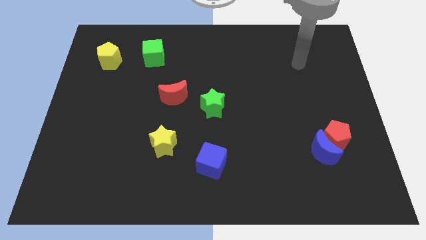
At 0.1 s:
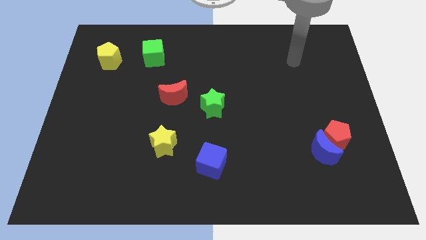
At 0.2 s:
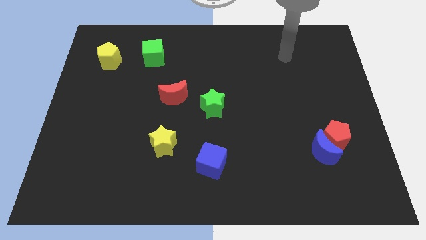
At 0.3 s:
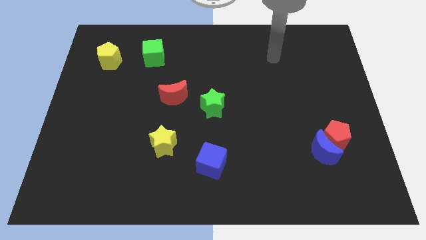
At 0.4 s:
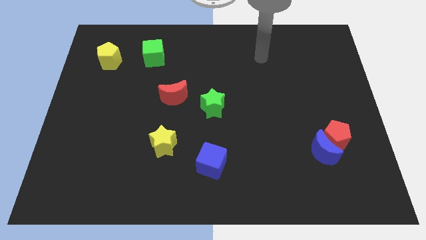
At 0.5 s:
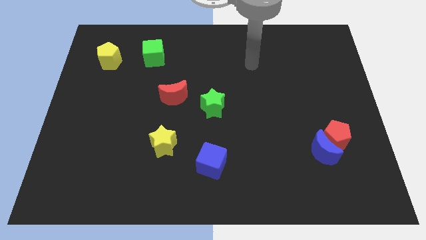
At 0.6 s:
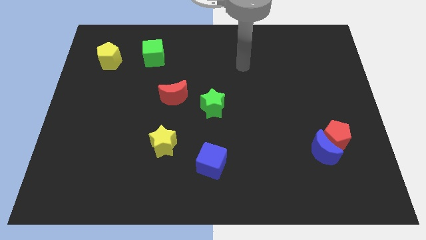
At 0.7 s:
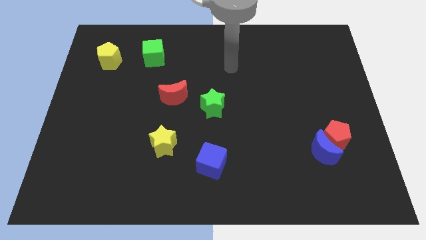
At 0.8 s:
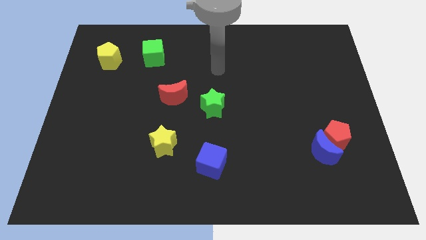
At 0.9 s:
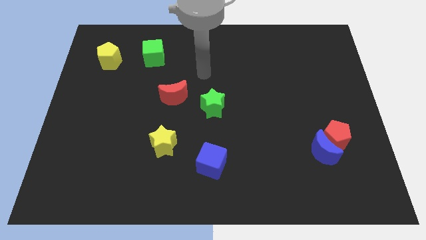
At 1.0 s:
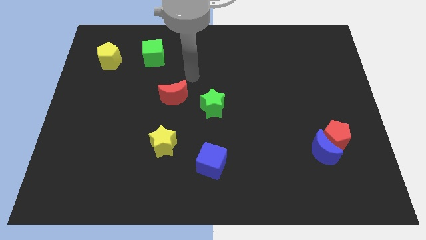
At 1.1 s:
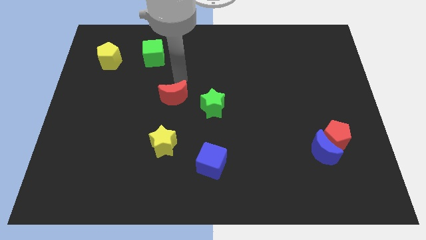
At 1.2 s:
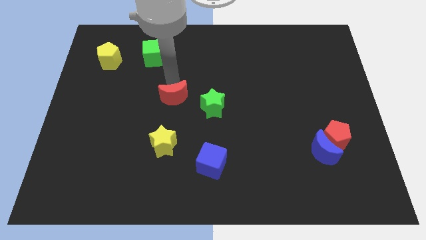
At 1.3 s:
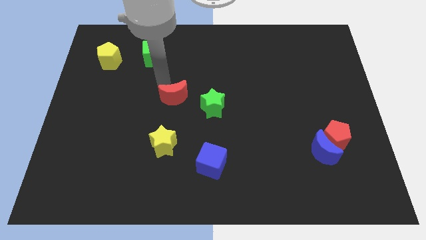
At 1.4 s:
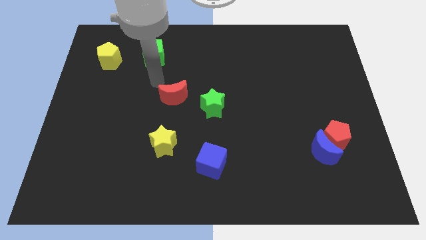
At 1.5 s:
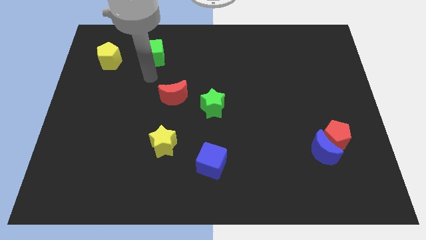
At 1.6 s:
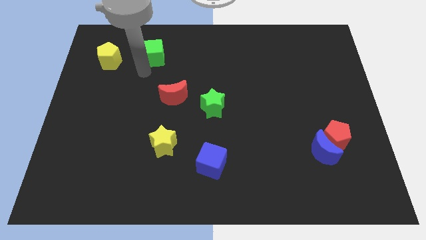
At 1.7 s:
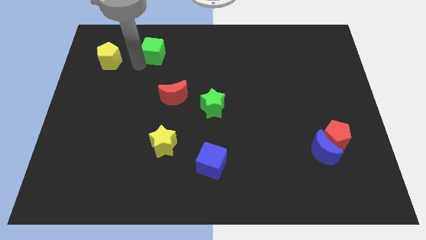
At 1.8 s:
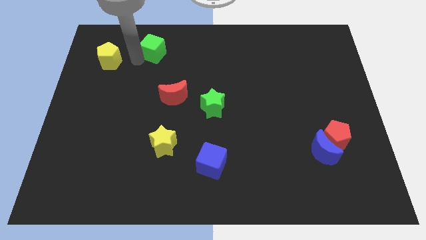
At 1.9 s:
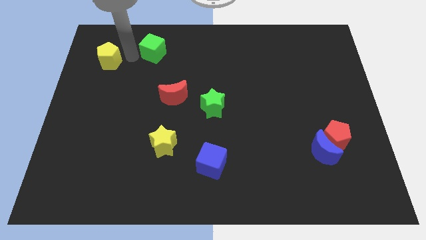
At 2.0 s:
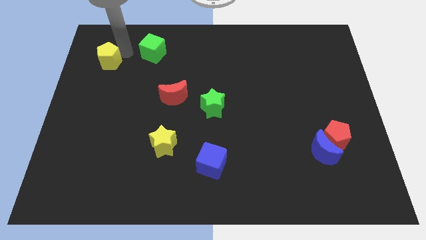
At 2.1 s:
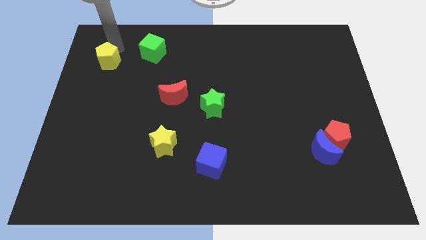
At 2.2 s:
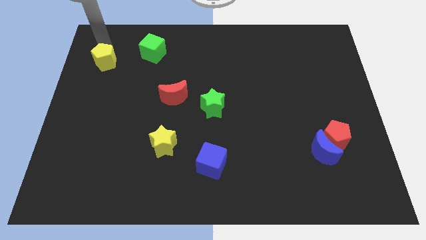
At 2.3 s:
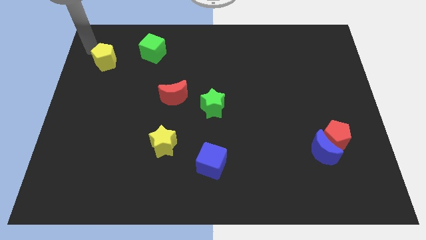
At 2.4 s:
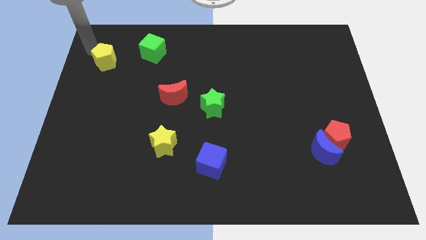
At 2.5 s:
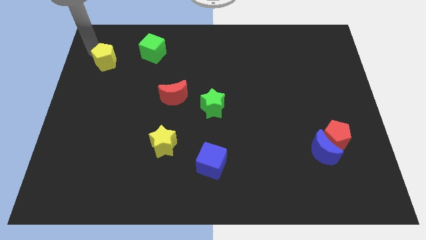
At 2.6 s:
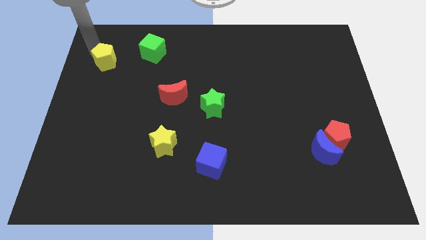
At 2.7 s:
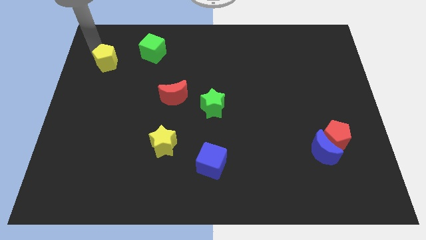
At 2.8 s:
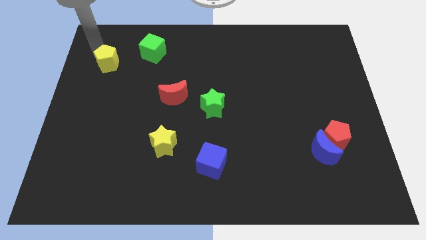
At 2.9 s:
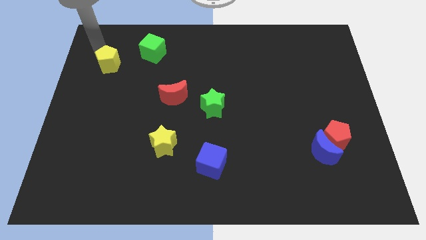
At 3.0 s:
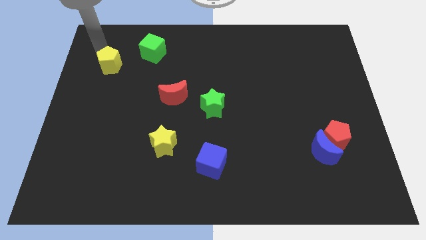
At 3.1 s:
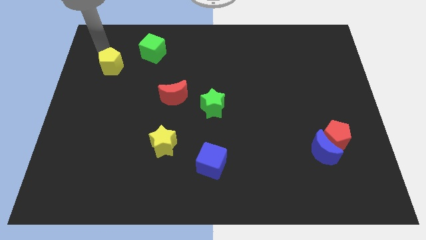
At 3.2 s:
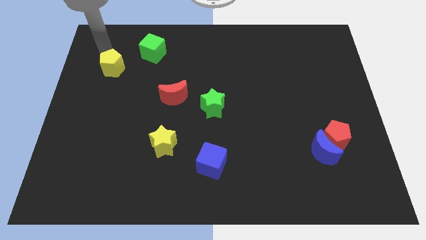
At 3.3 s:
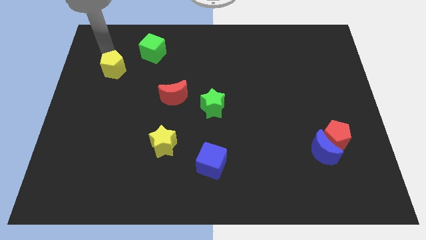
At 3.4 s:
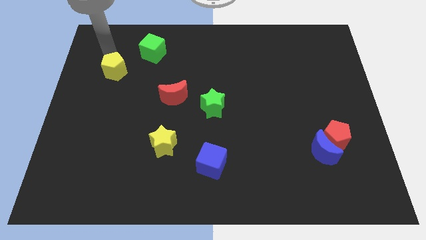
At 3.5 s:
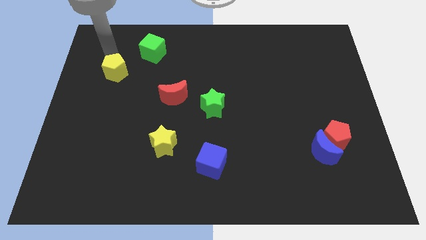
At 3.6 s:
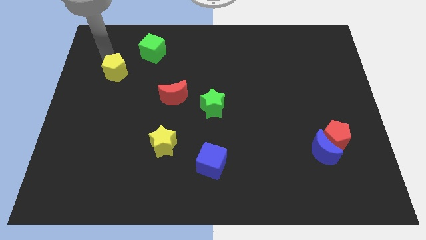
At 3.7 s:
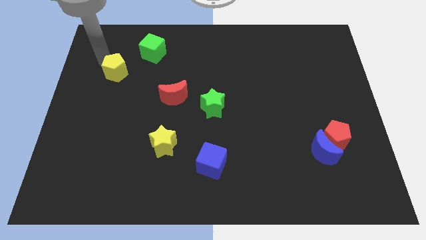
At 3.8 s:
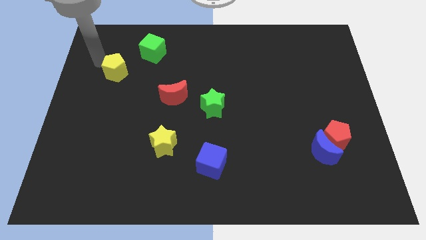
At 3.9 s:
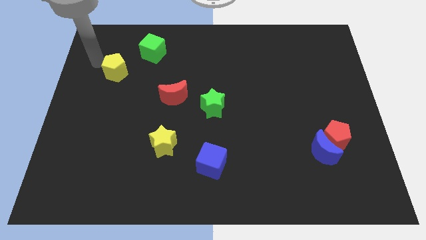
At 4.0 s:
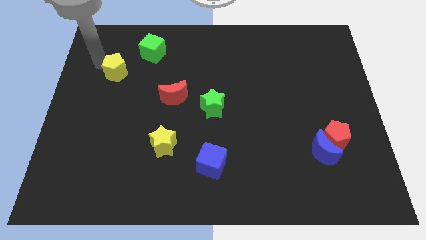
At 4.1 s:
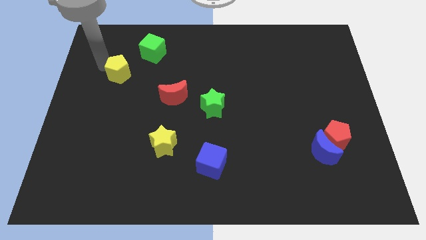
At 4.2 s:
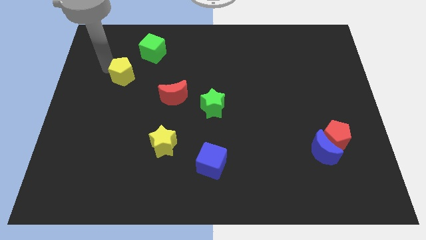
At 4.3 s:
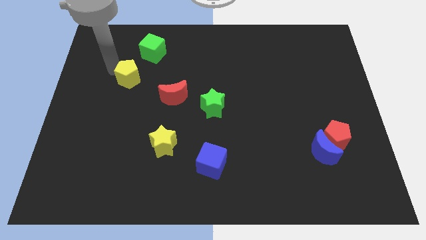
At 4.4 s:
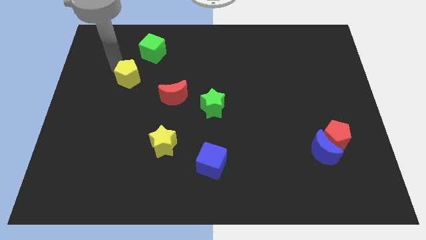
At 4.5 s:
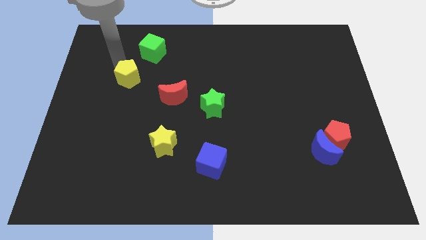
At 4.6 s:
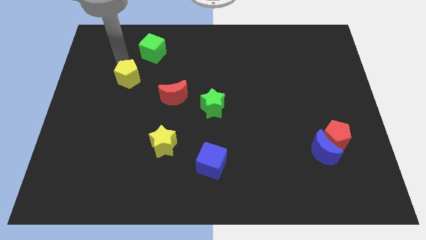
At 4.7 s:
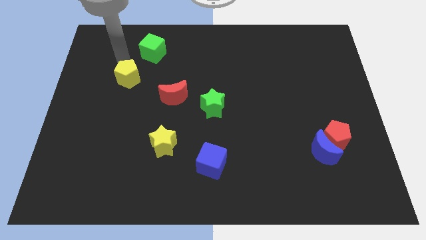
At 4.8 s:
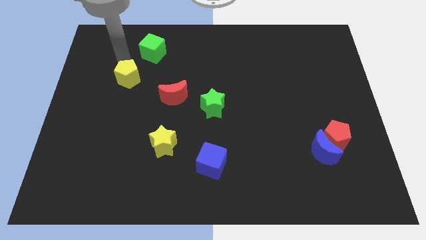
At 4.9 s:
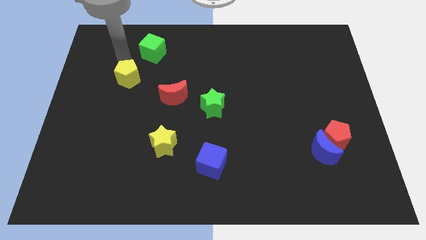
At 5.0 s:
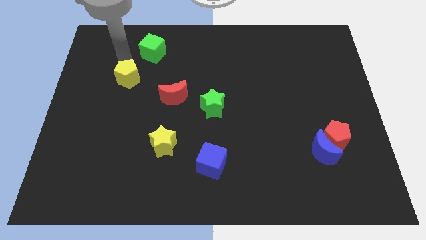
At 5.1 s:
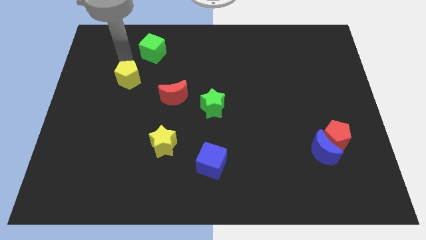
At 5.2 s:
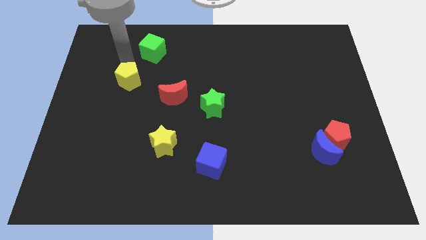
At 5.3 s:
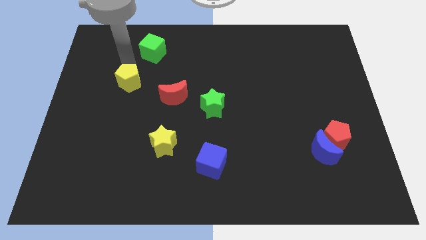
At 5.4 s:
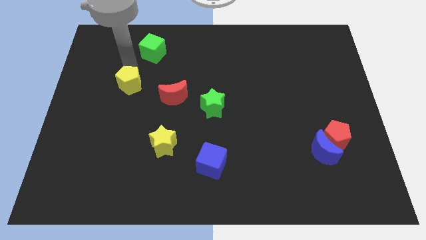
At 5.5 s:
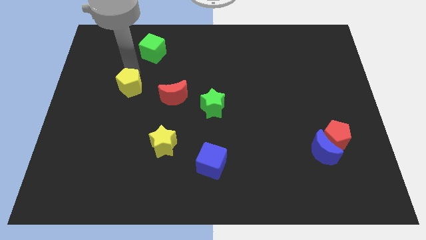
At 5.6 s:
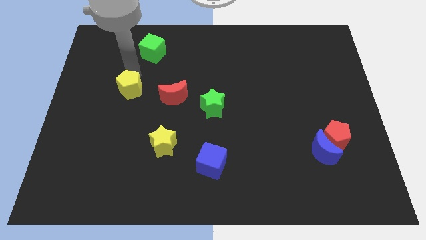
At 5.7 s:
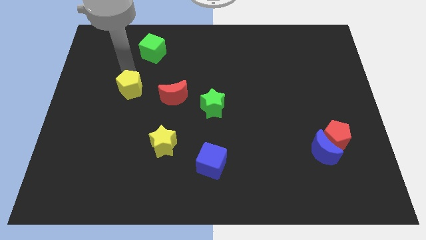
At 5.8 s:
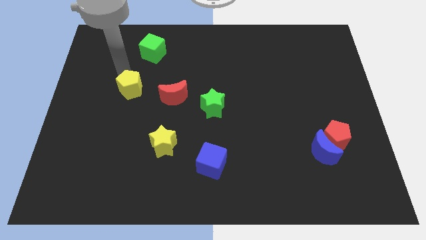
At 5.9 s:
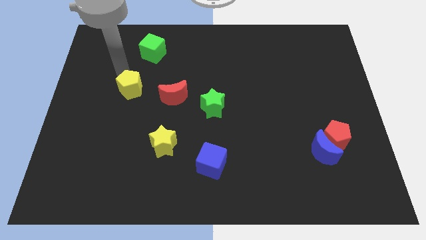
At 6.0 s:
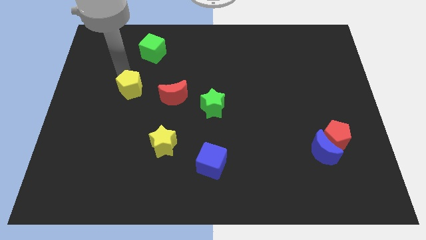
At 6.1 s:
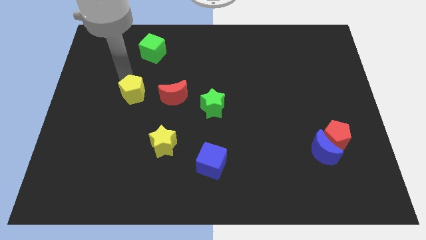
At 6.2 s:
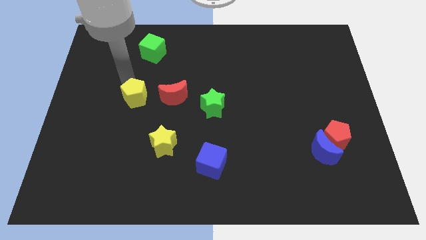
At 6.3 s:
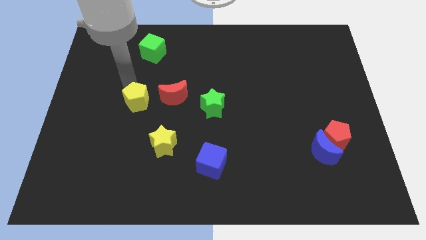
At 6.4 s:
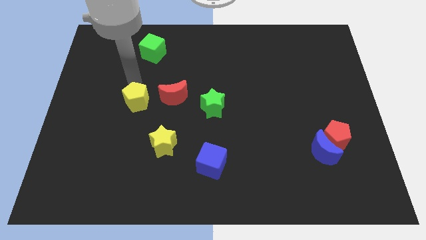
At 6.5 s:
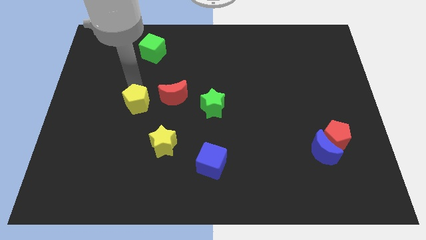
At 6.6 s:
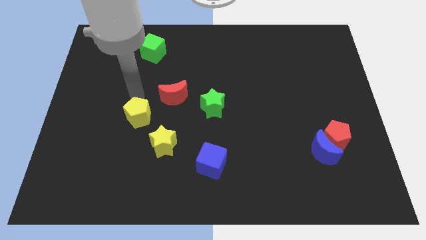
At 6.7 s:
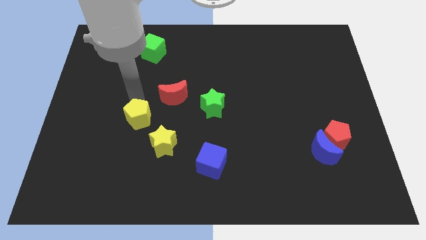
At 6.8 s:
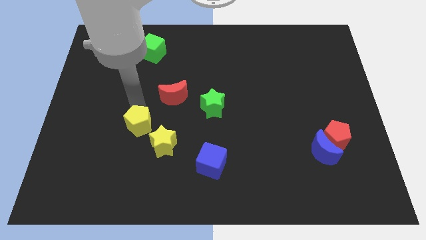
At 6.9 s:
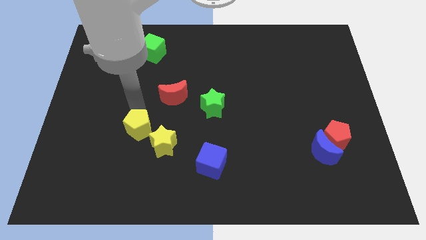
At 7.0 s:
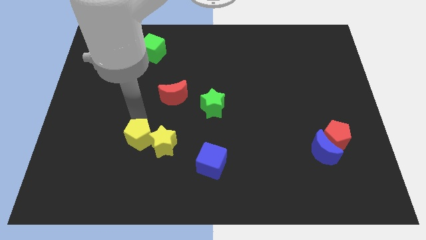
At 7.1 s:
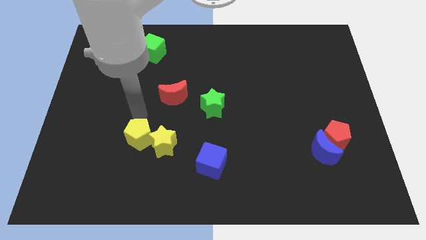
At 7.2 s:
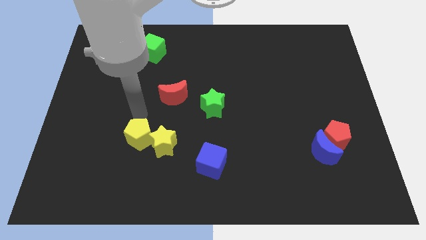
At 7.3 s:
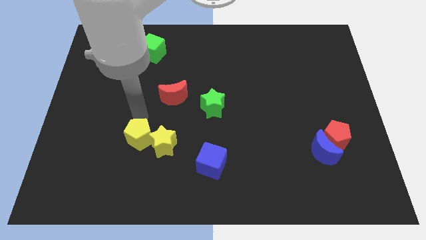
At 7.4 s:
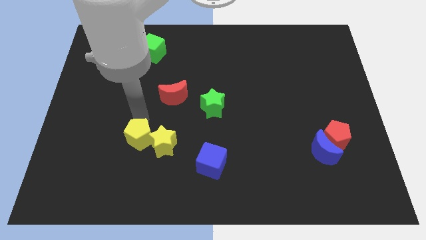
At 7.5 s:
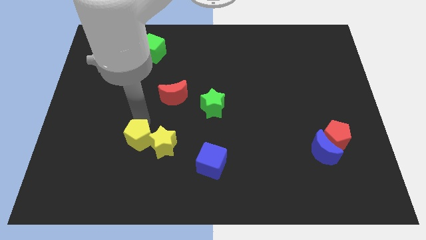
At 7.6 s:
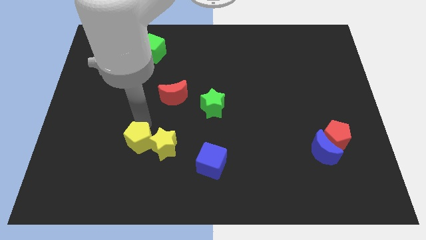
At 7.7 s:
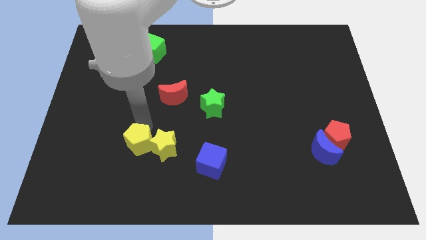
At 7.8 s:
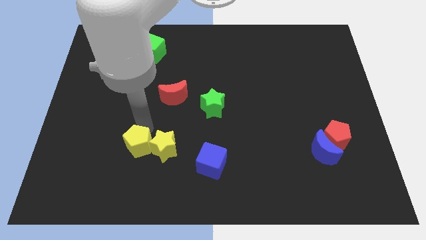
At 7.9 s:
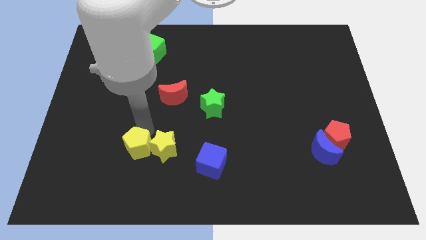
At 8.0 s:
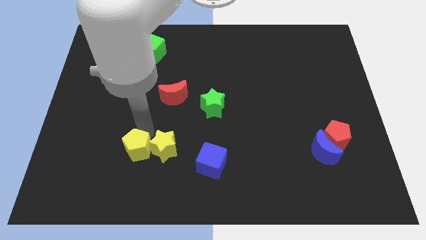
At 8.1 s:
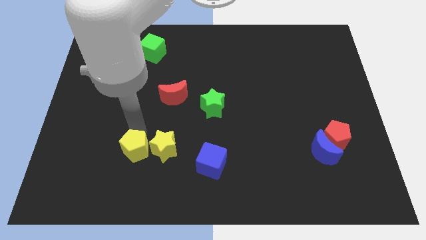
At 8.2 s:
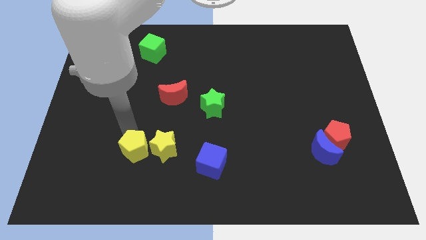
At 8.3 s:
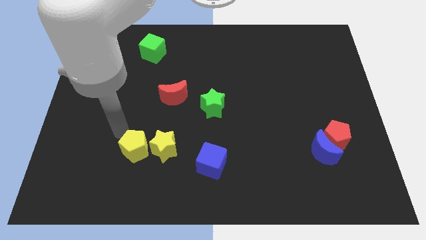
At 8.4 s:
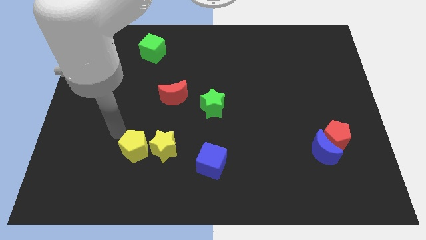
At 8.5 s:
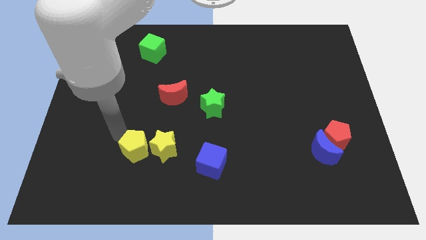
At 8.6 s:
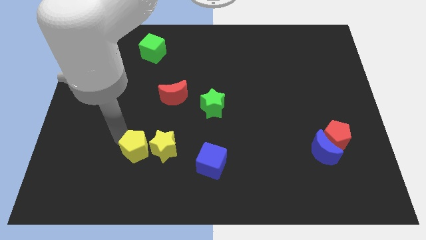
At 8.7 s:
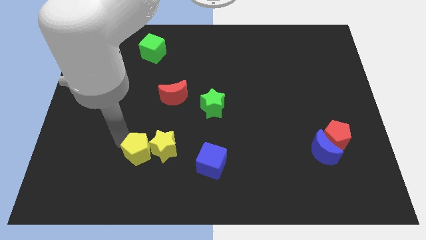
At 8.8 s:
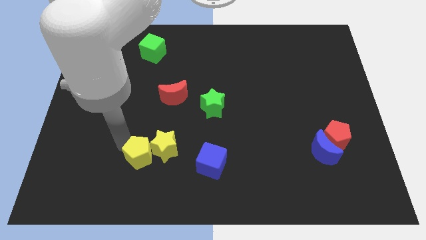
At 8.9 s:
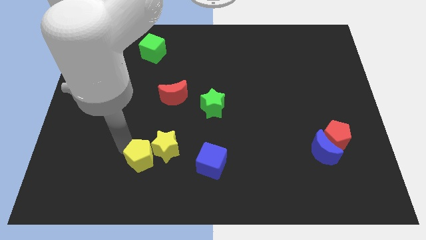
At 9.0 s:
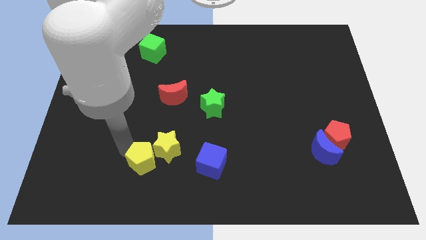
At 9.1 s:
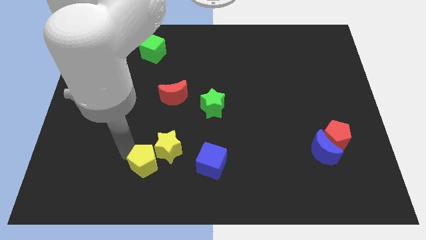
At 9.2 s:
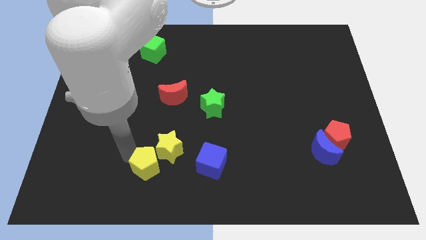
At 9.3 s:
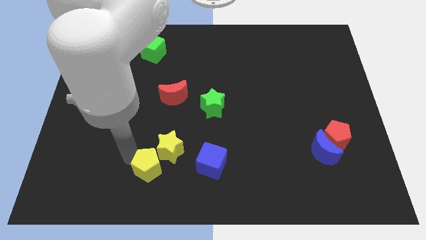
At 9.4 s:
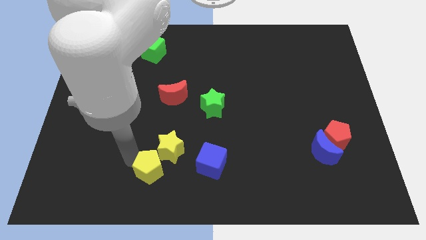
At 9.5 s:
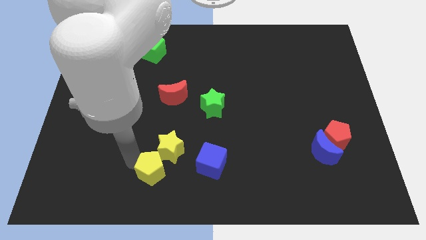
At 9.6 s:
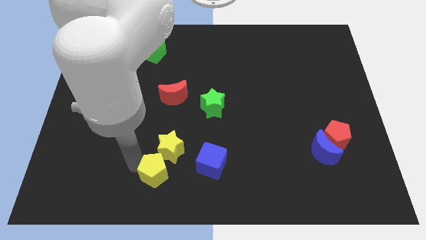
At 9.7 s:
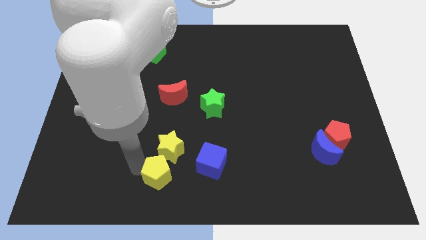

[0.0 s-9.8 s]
put the yellow pentagon to the bottom
